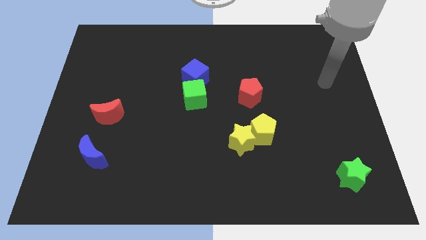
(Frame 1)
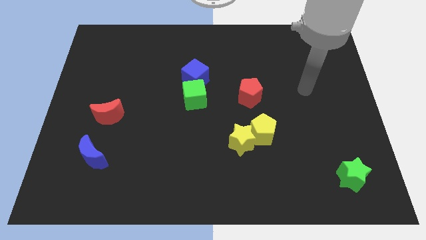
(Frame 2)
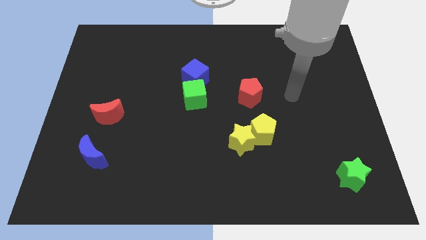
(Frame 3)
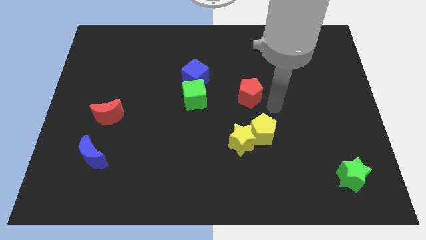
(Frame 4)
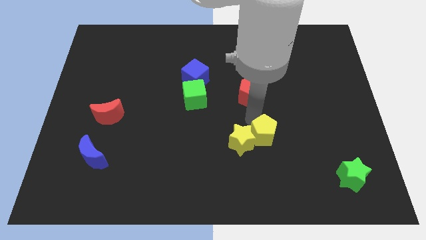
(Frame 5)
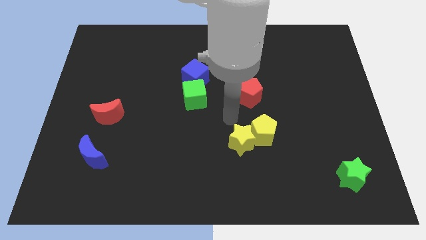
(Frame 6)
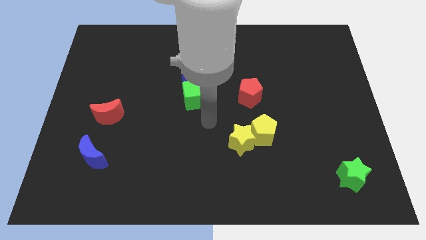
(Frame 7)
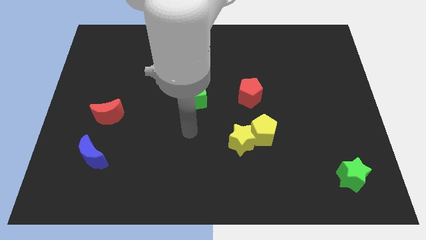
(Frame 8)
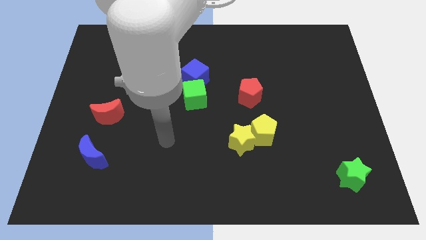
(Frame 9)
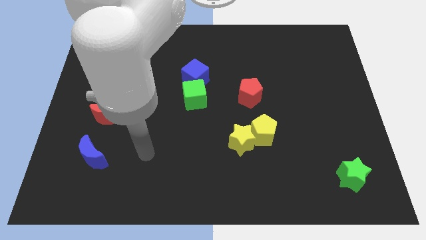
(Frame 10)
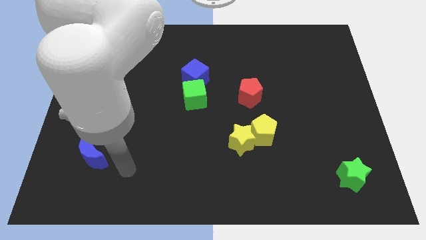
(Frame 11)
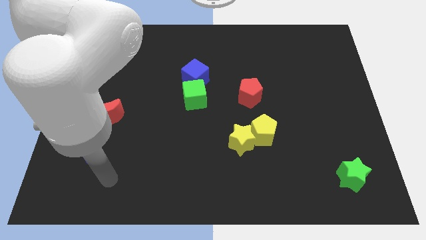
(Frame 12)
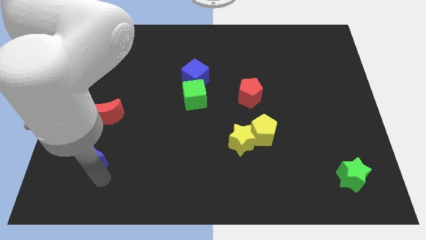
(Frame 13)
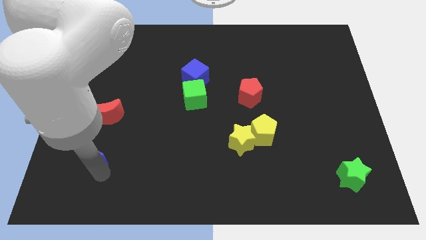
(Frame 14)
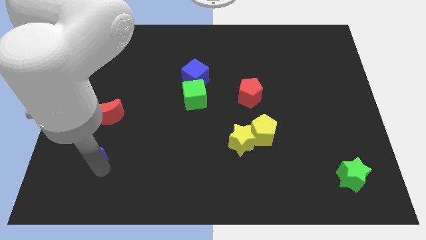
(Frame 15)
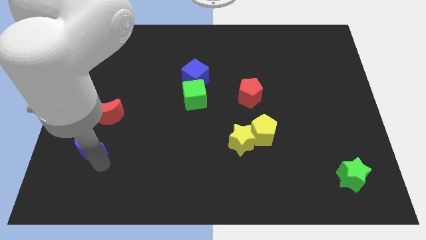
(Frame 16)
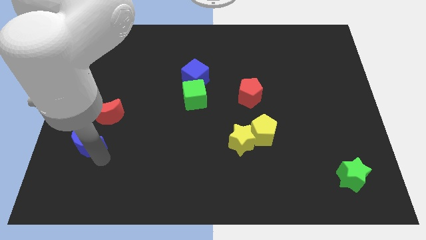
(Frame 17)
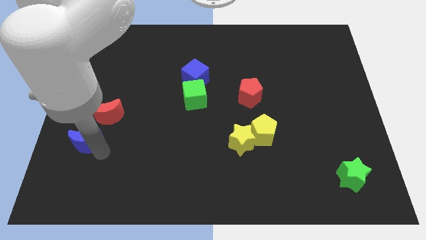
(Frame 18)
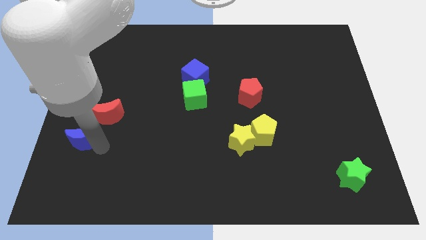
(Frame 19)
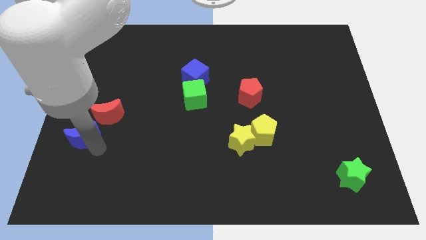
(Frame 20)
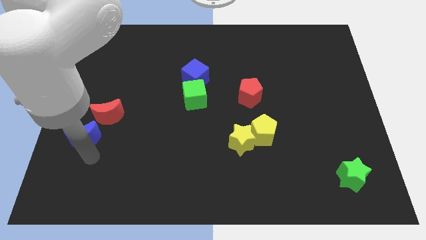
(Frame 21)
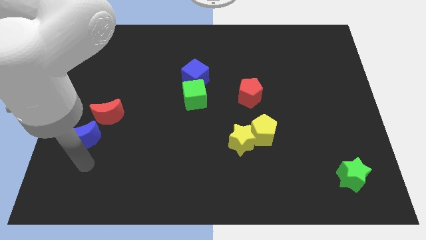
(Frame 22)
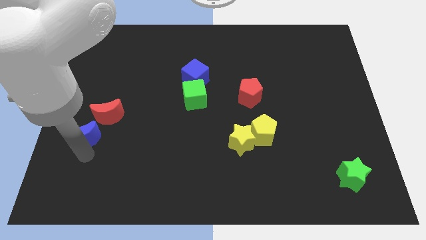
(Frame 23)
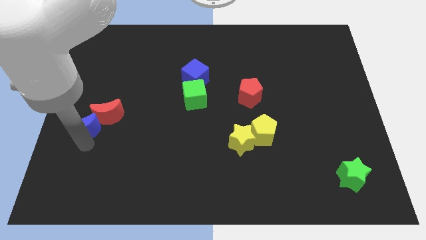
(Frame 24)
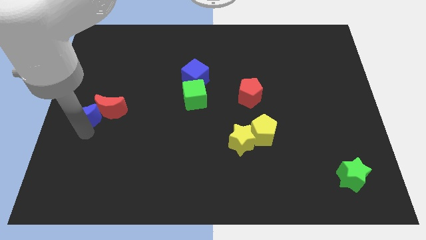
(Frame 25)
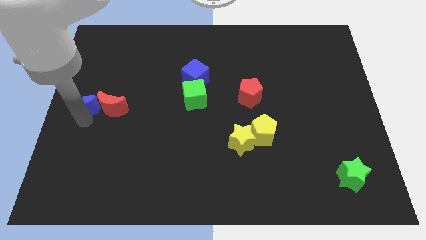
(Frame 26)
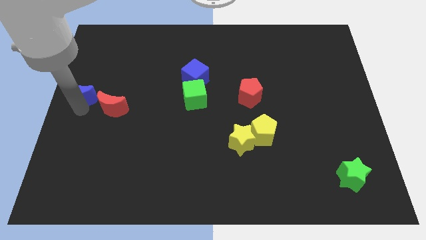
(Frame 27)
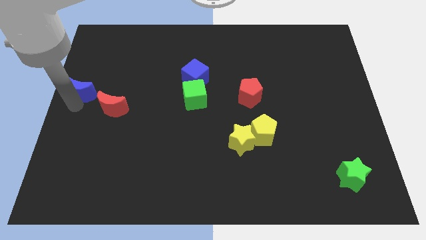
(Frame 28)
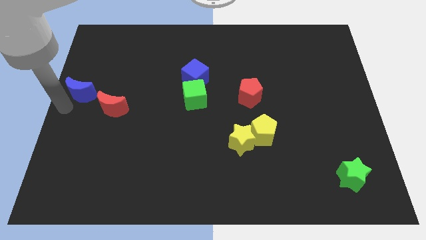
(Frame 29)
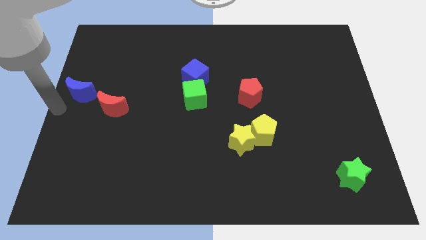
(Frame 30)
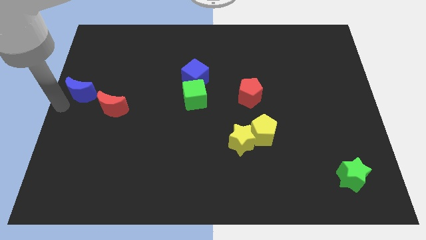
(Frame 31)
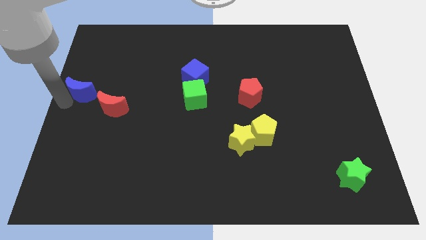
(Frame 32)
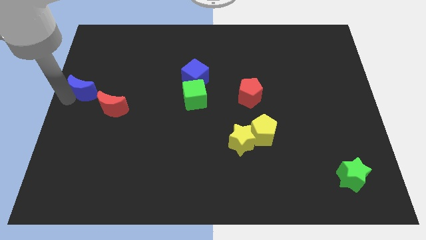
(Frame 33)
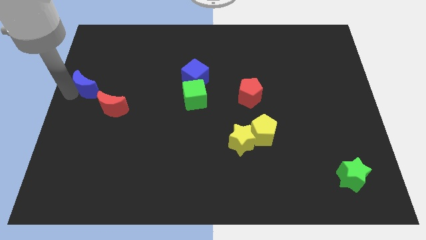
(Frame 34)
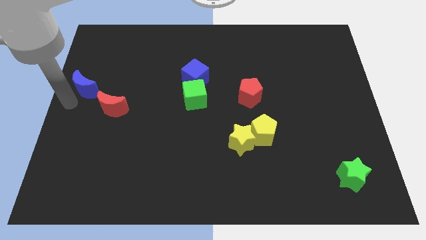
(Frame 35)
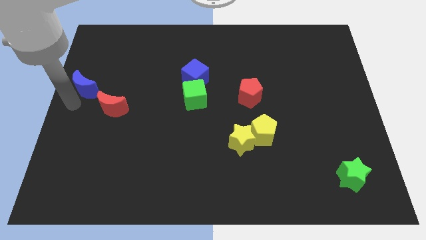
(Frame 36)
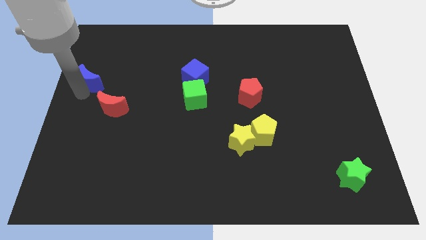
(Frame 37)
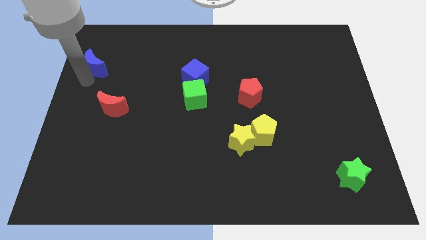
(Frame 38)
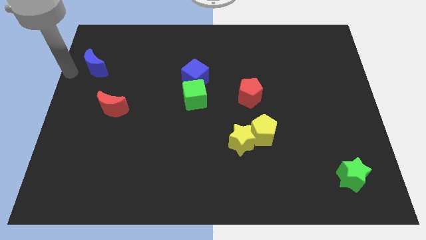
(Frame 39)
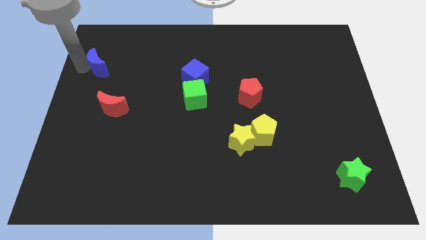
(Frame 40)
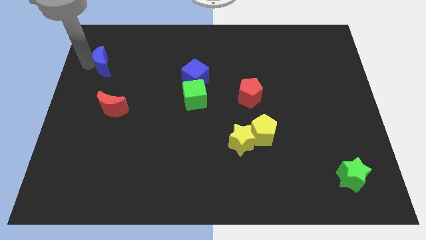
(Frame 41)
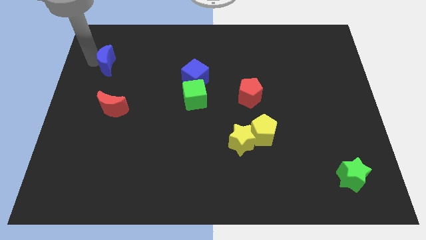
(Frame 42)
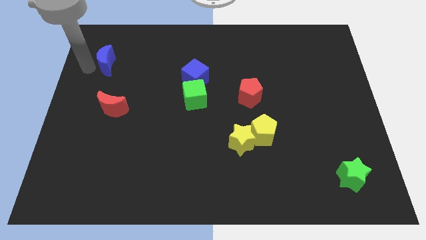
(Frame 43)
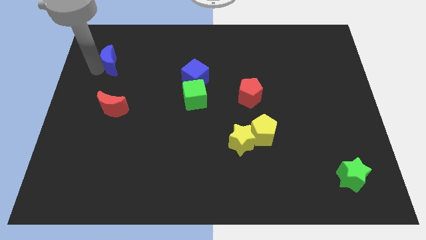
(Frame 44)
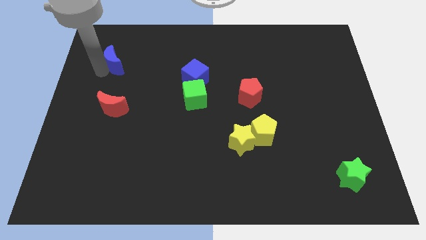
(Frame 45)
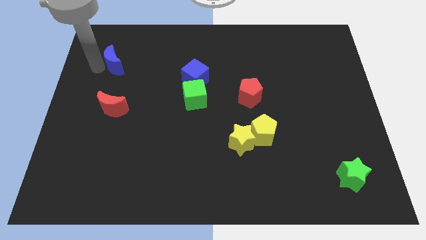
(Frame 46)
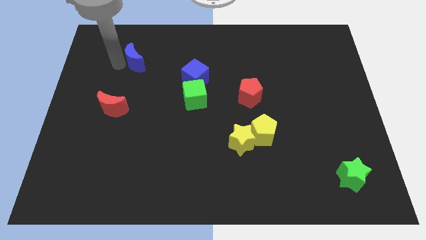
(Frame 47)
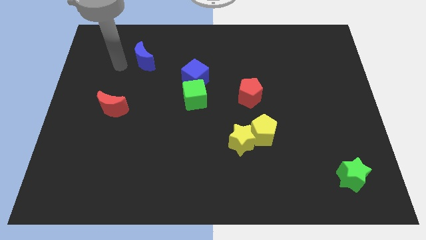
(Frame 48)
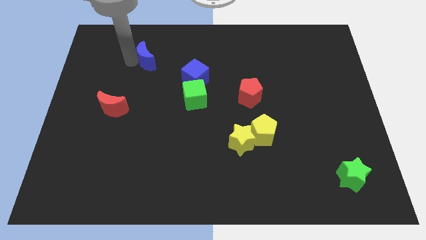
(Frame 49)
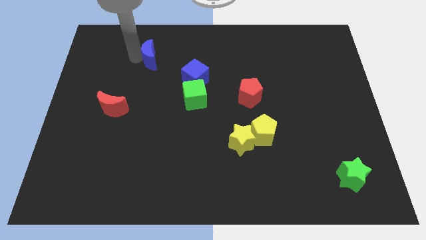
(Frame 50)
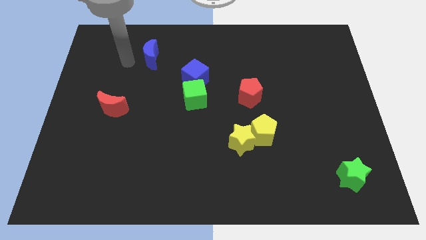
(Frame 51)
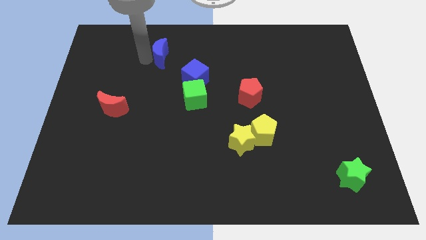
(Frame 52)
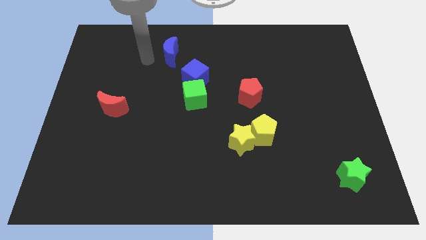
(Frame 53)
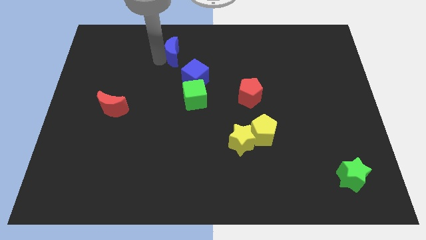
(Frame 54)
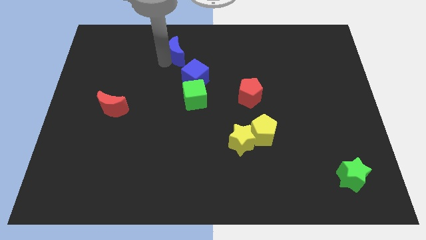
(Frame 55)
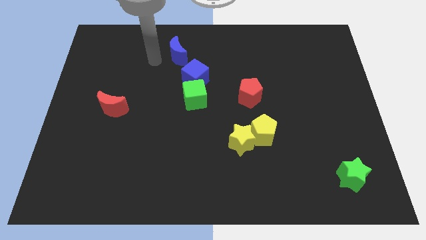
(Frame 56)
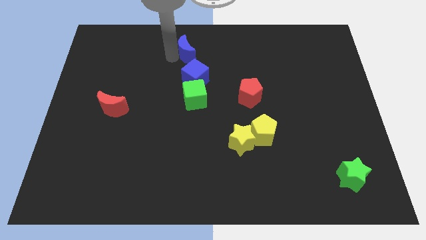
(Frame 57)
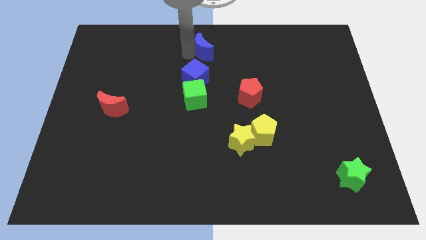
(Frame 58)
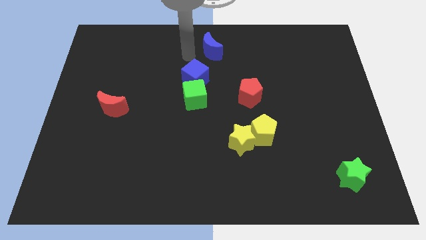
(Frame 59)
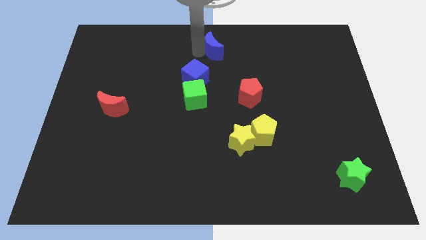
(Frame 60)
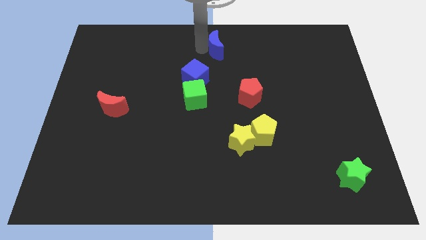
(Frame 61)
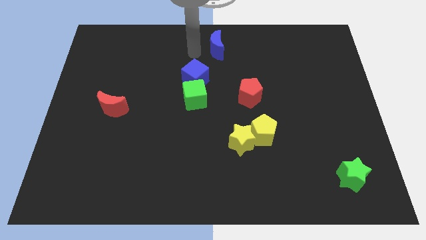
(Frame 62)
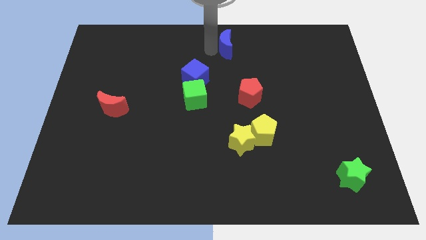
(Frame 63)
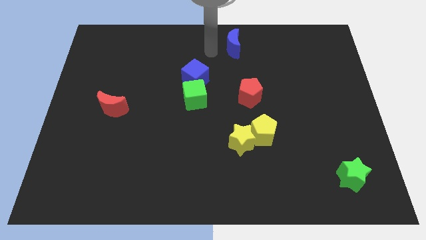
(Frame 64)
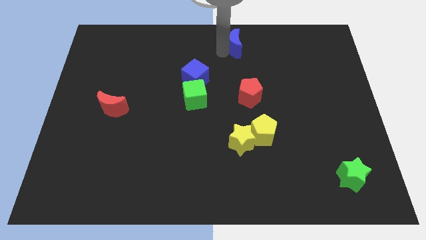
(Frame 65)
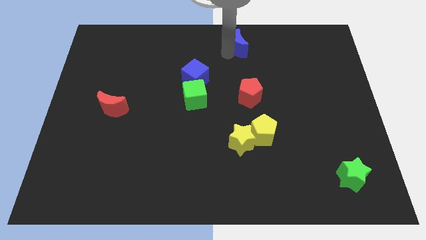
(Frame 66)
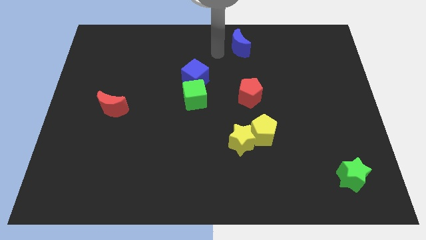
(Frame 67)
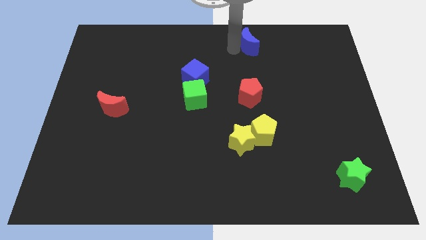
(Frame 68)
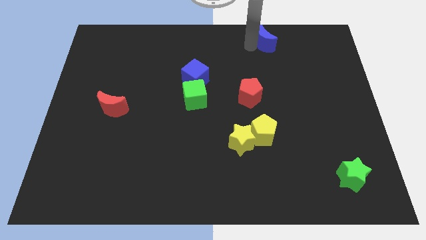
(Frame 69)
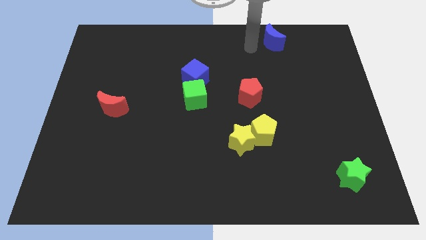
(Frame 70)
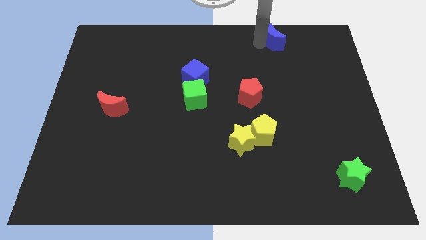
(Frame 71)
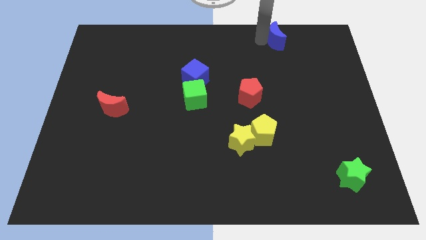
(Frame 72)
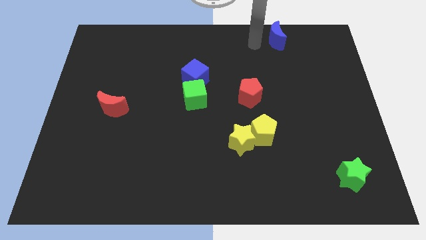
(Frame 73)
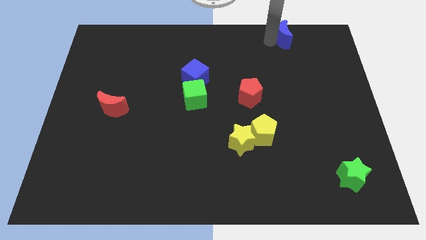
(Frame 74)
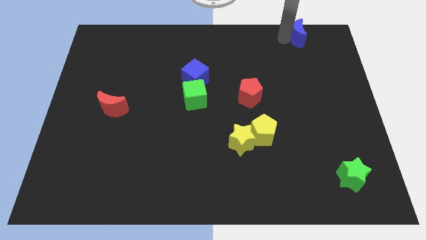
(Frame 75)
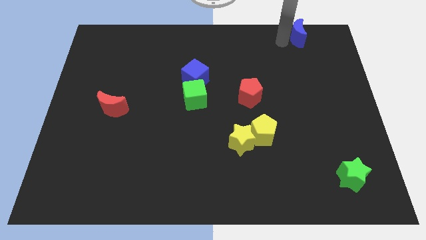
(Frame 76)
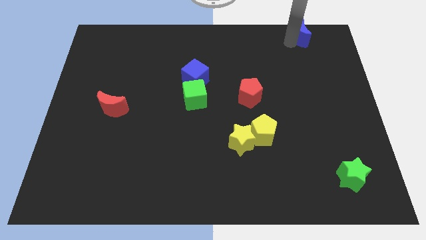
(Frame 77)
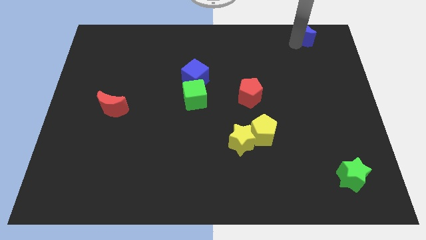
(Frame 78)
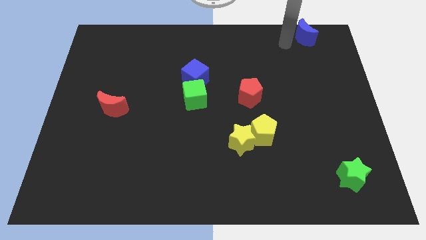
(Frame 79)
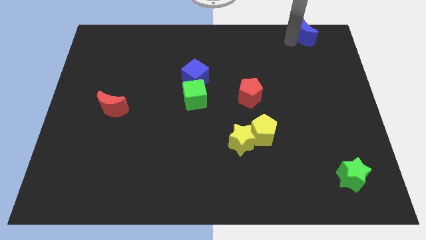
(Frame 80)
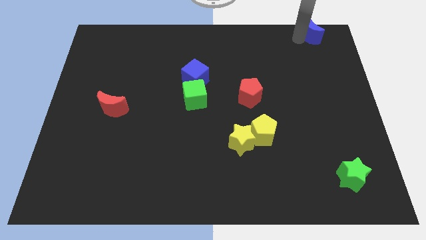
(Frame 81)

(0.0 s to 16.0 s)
move the blue moon to the top right
